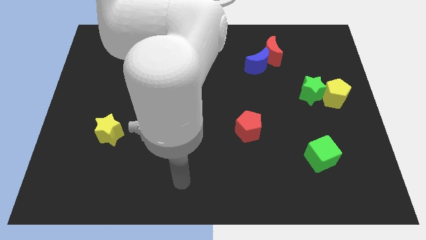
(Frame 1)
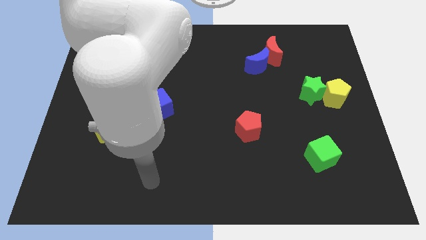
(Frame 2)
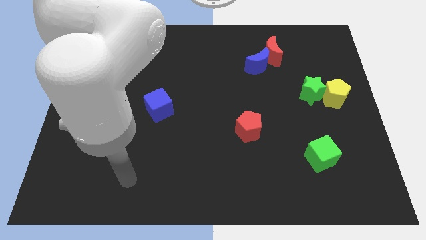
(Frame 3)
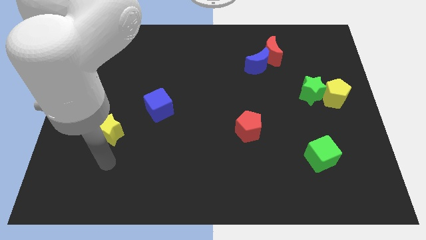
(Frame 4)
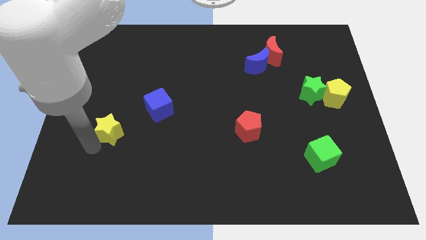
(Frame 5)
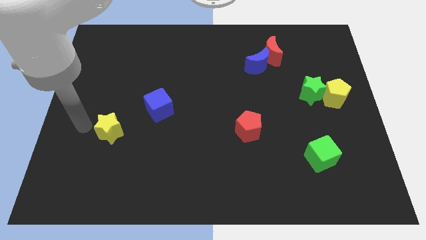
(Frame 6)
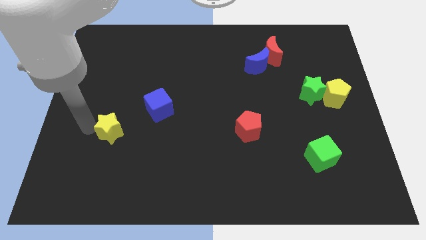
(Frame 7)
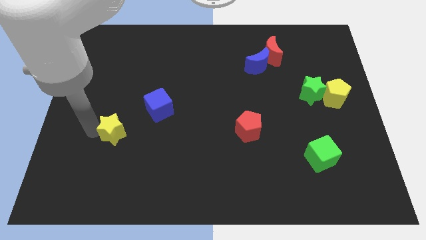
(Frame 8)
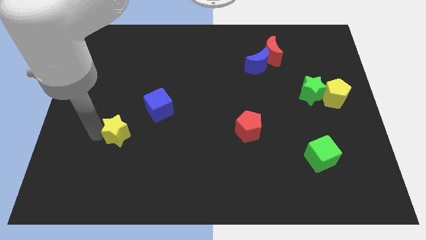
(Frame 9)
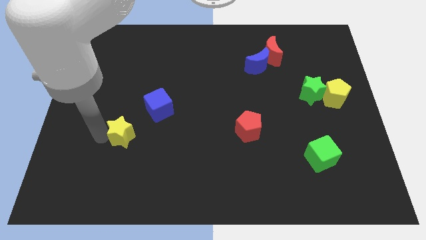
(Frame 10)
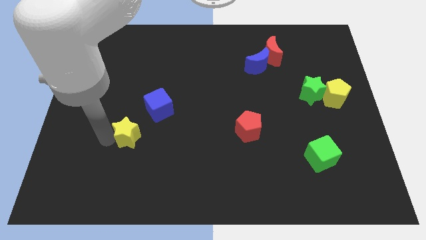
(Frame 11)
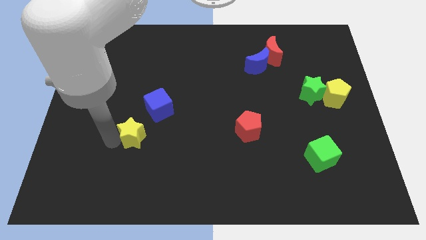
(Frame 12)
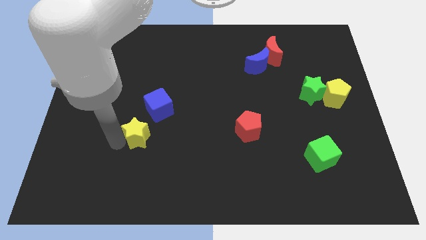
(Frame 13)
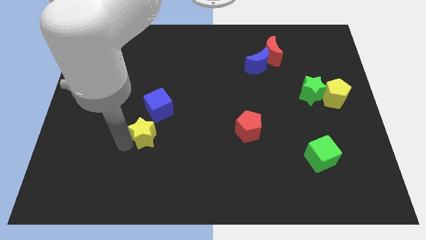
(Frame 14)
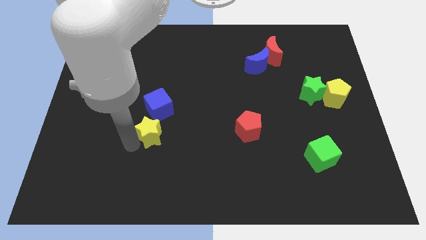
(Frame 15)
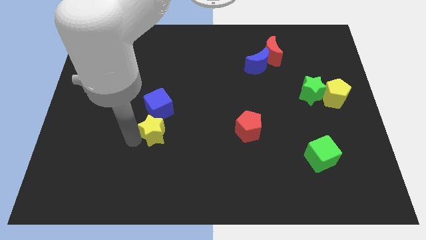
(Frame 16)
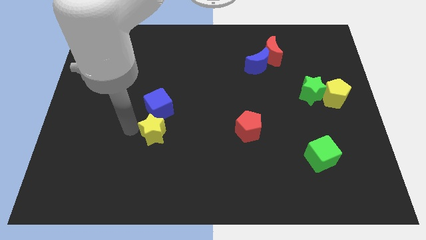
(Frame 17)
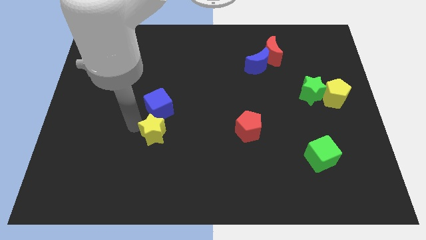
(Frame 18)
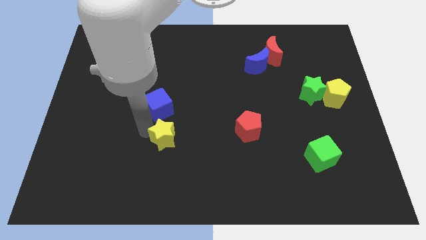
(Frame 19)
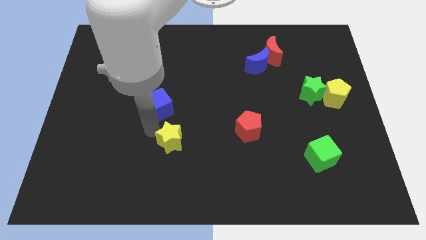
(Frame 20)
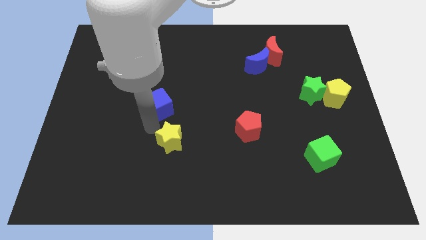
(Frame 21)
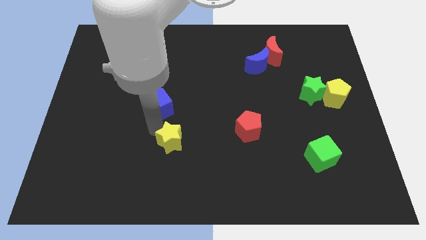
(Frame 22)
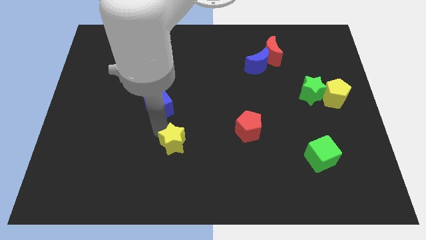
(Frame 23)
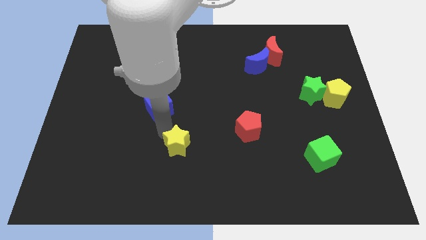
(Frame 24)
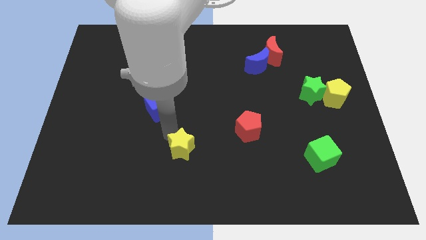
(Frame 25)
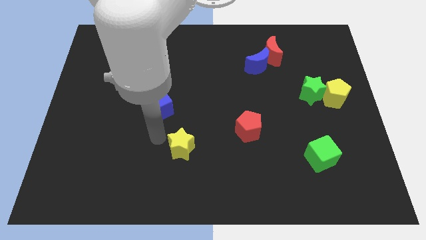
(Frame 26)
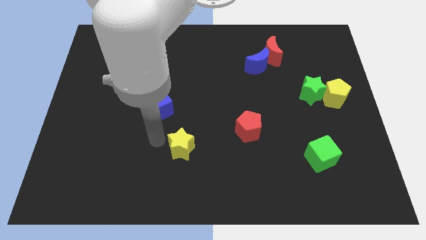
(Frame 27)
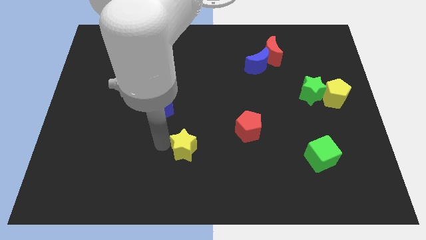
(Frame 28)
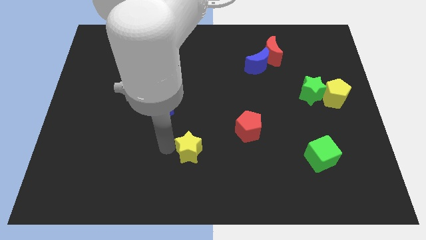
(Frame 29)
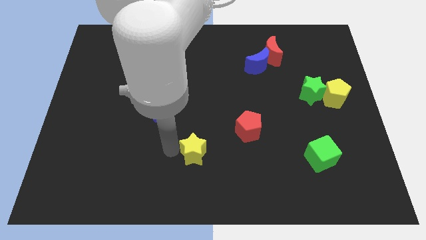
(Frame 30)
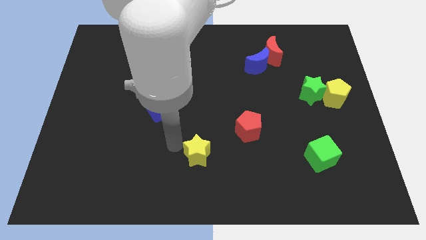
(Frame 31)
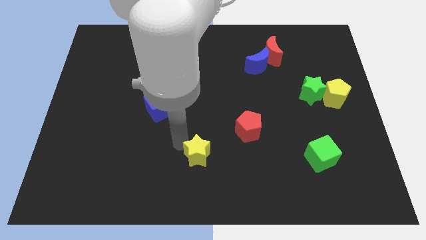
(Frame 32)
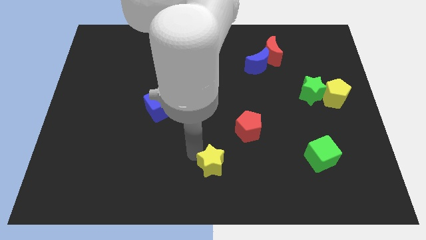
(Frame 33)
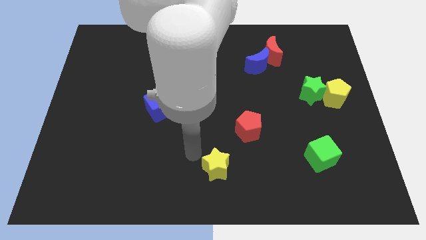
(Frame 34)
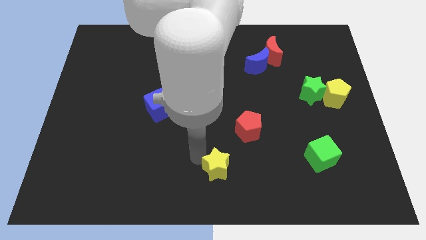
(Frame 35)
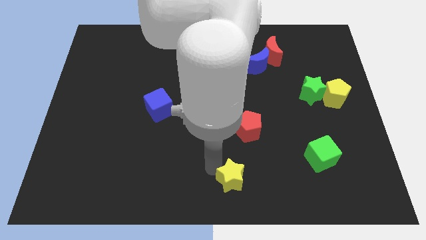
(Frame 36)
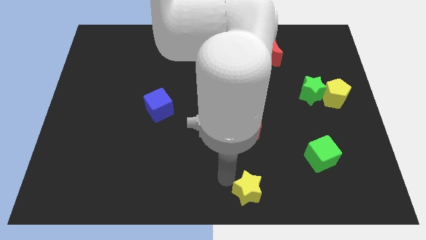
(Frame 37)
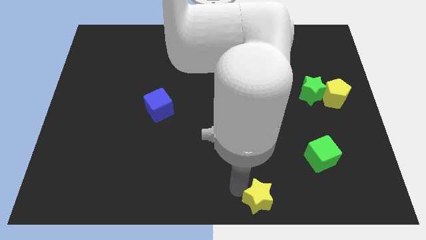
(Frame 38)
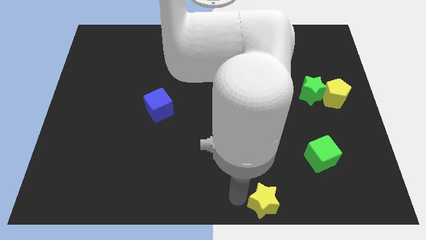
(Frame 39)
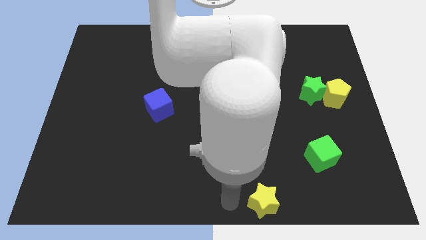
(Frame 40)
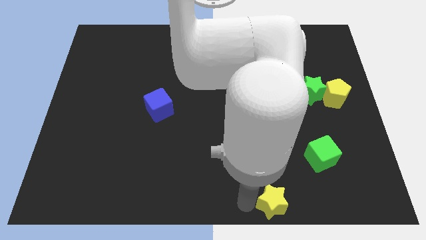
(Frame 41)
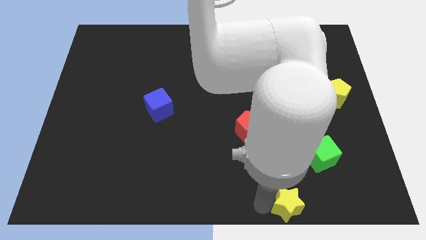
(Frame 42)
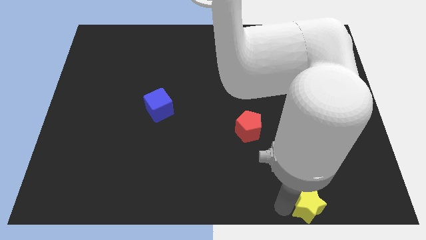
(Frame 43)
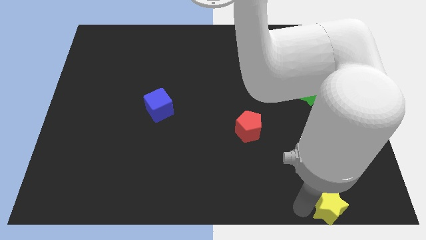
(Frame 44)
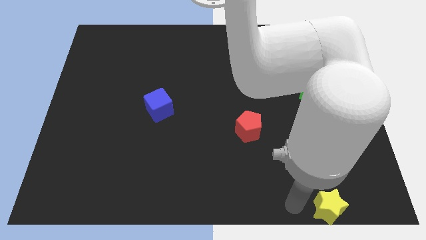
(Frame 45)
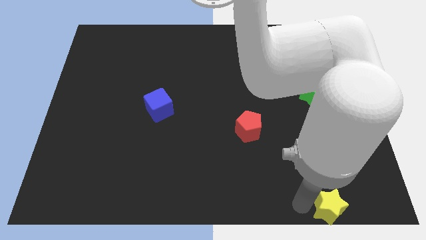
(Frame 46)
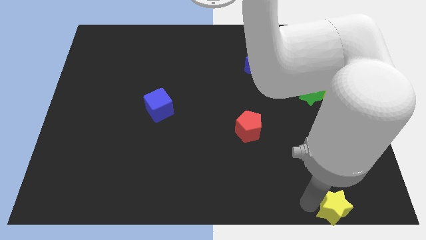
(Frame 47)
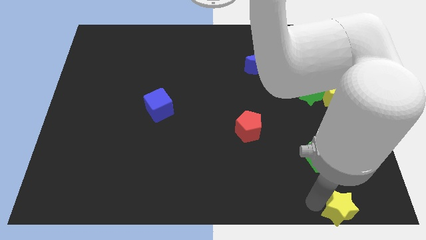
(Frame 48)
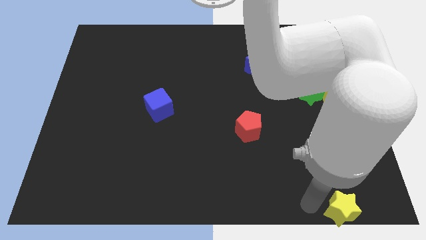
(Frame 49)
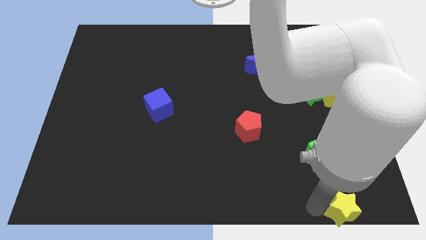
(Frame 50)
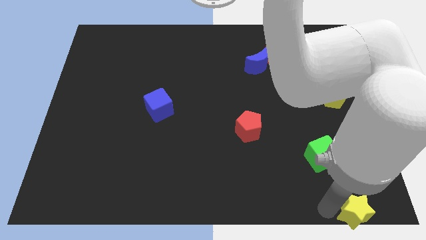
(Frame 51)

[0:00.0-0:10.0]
push the yellow star to the bottom right corner

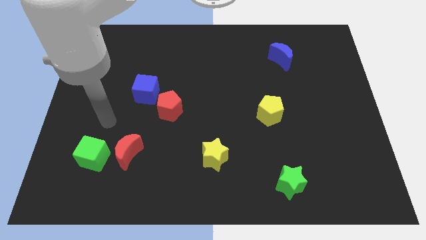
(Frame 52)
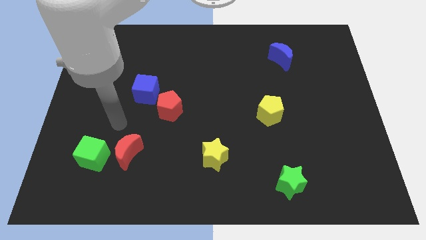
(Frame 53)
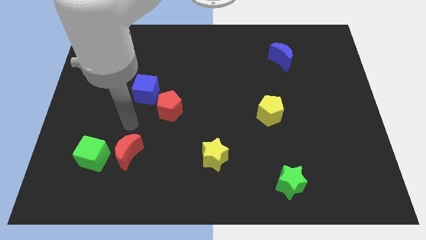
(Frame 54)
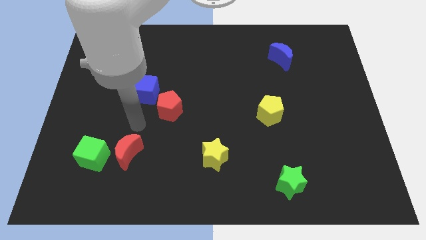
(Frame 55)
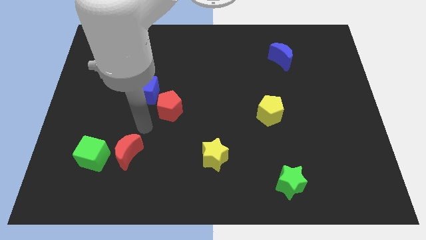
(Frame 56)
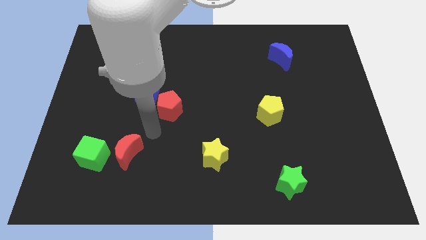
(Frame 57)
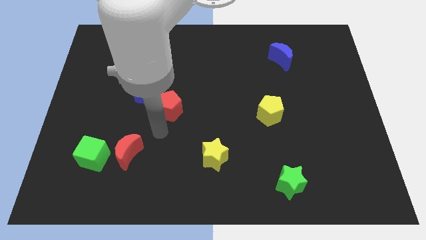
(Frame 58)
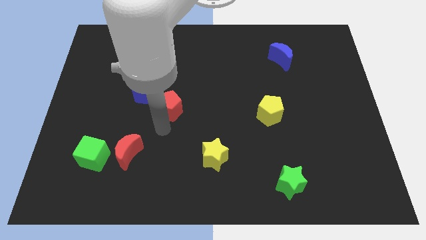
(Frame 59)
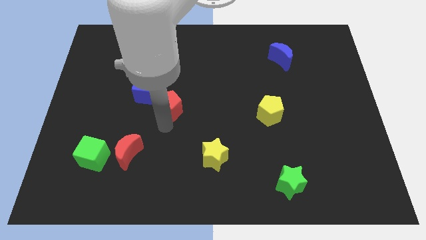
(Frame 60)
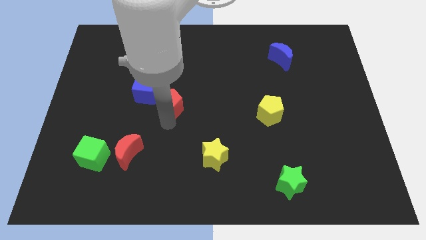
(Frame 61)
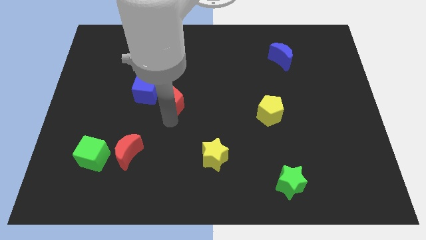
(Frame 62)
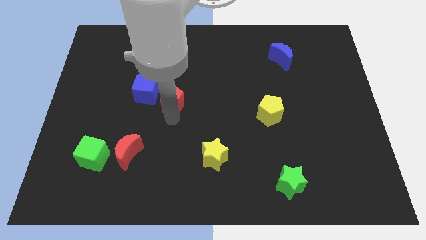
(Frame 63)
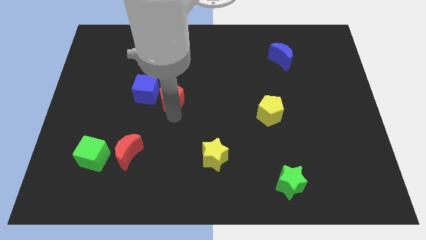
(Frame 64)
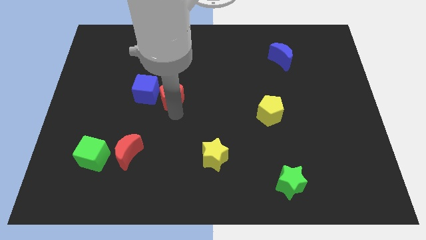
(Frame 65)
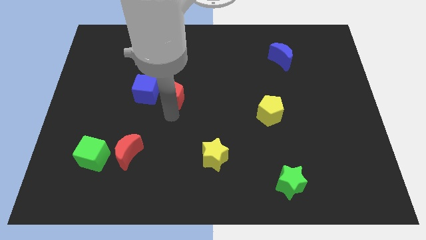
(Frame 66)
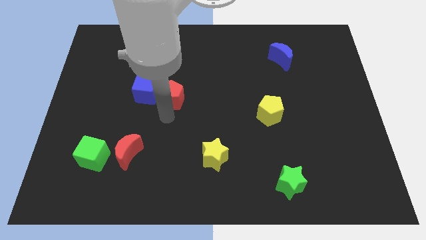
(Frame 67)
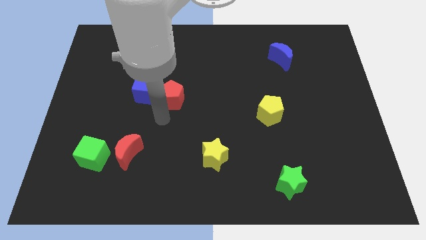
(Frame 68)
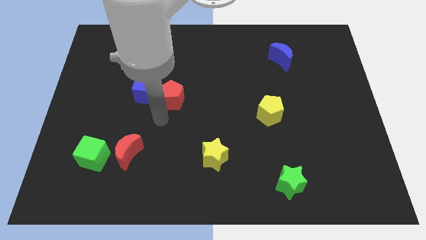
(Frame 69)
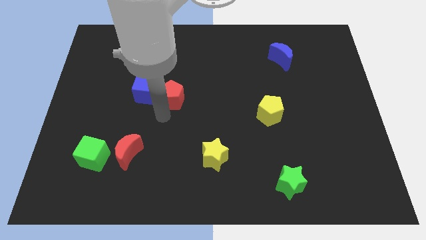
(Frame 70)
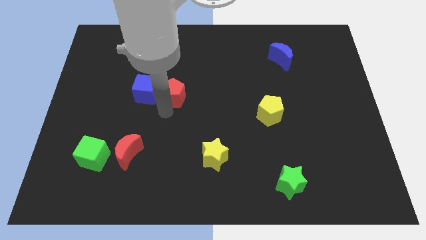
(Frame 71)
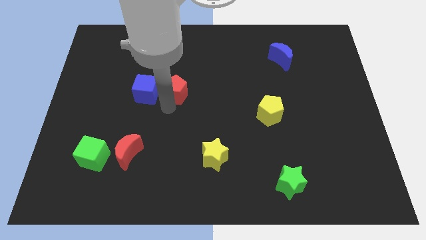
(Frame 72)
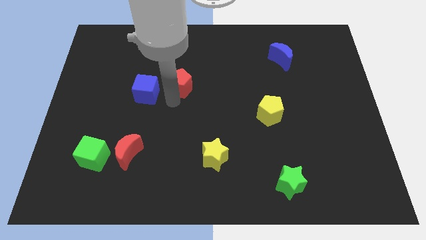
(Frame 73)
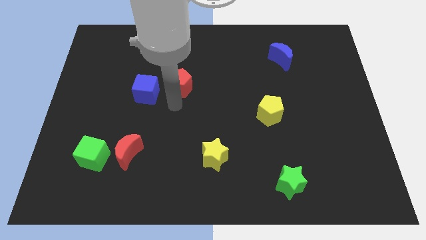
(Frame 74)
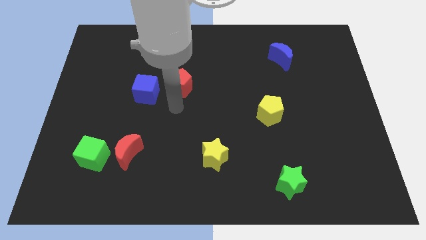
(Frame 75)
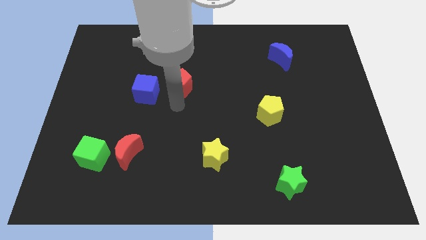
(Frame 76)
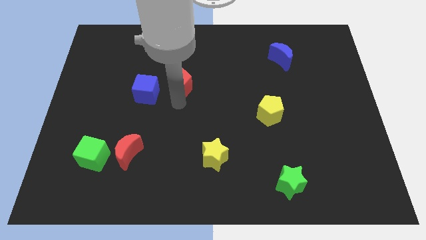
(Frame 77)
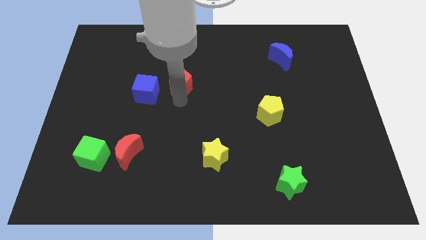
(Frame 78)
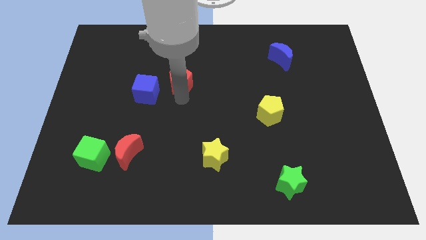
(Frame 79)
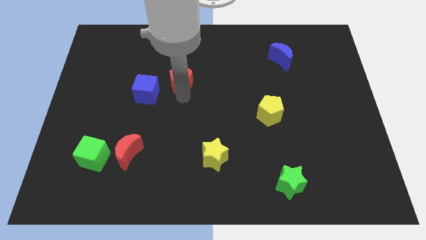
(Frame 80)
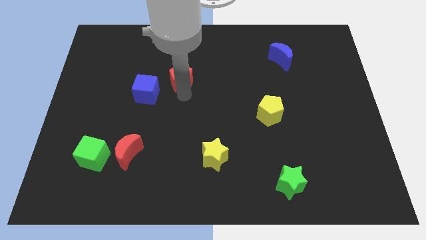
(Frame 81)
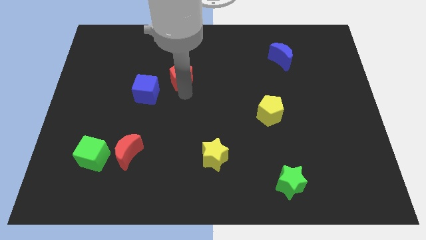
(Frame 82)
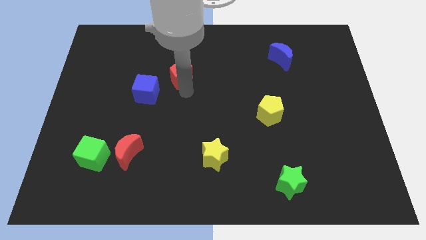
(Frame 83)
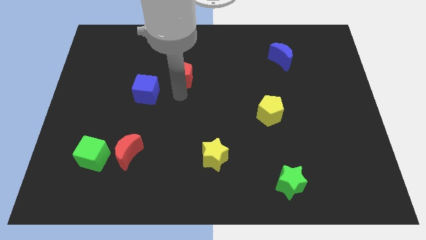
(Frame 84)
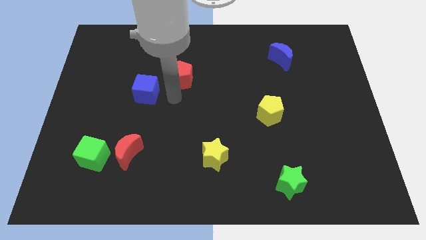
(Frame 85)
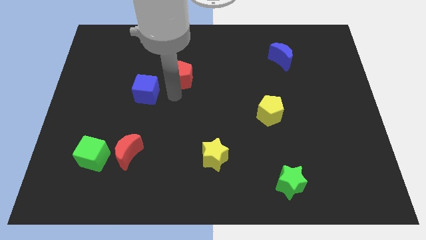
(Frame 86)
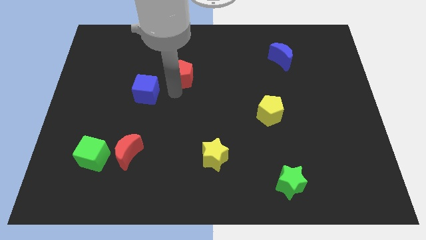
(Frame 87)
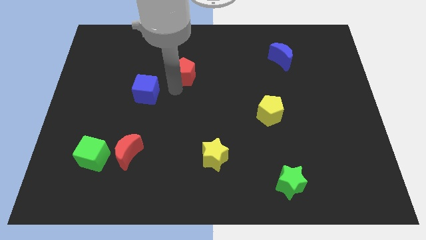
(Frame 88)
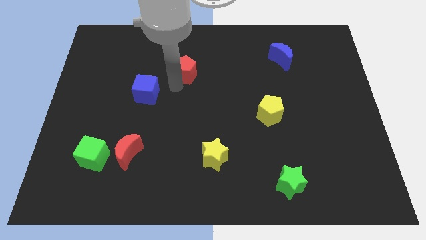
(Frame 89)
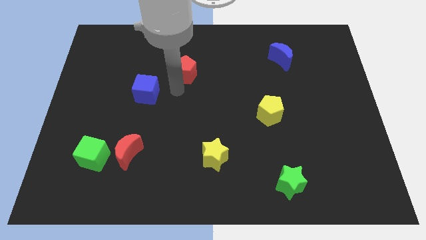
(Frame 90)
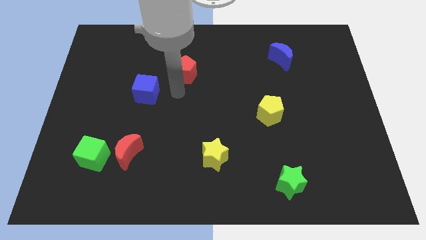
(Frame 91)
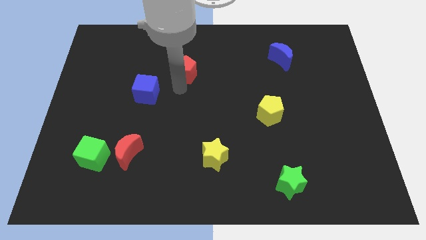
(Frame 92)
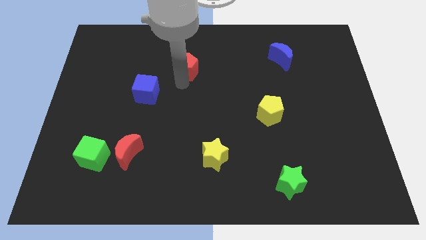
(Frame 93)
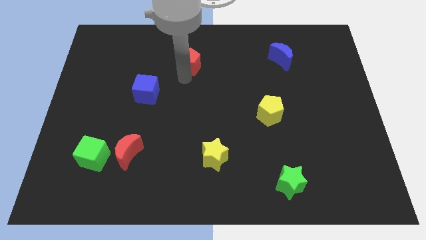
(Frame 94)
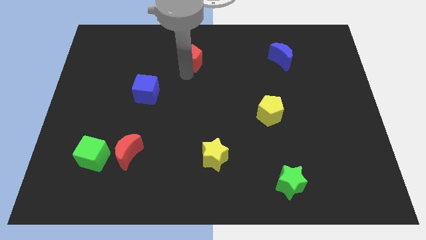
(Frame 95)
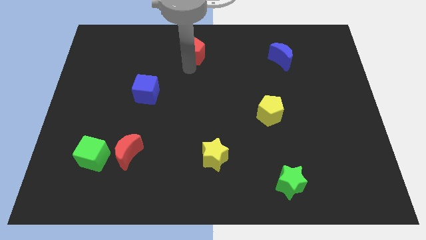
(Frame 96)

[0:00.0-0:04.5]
move the red pentagon to the top side
